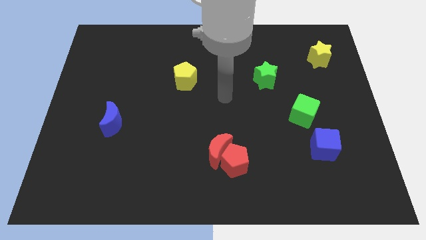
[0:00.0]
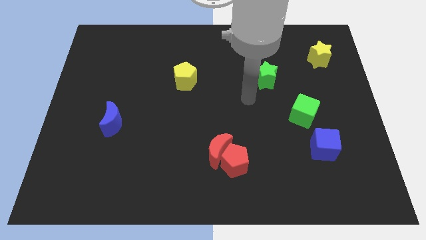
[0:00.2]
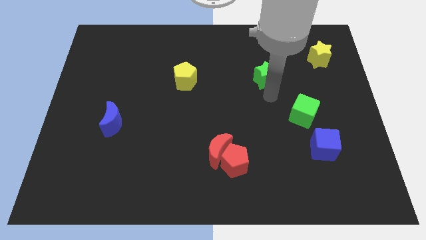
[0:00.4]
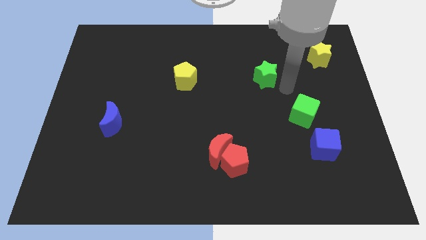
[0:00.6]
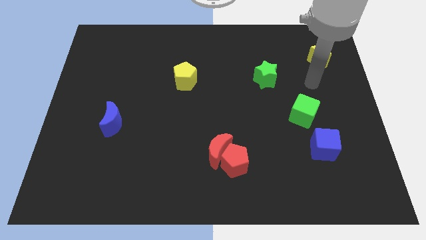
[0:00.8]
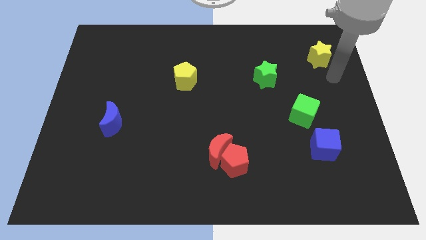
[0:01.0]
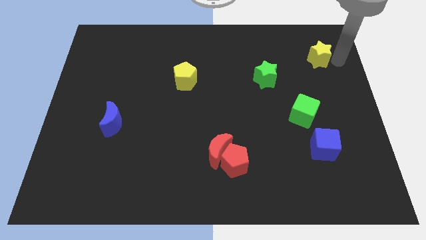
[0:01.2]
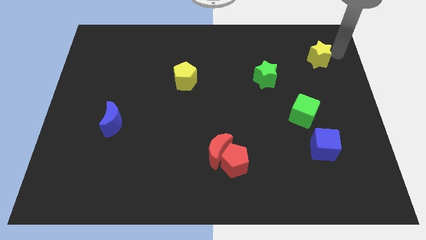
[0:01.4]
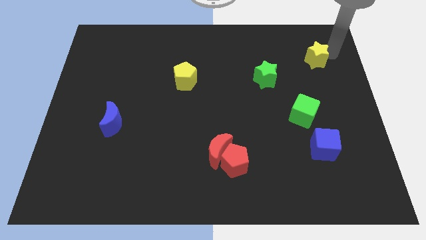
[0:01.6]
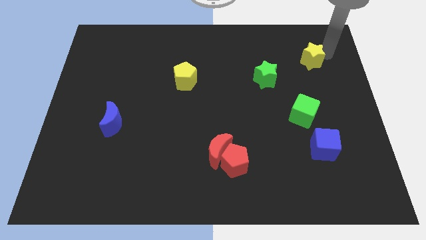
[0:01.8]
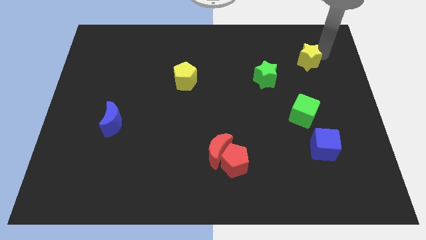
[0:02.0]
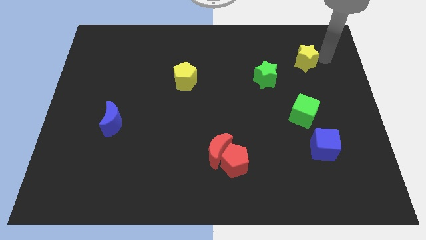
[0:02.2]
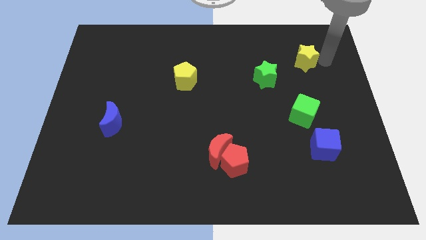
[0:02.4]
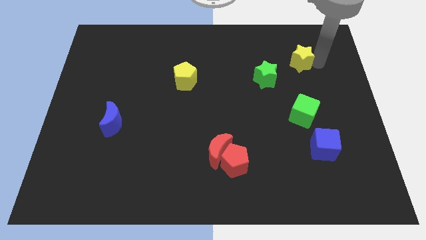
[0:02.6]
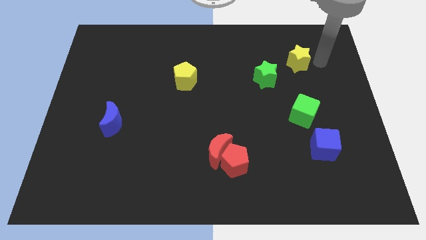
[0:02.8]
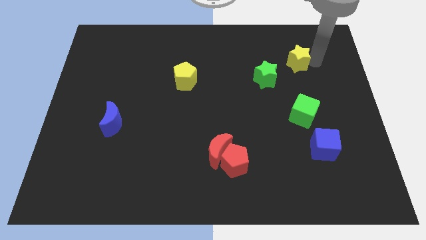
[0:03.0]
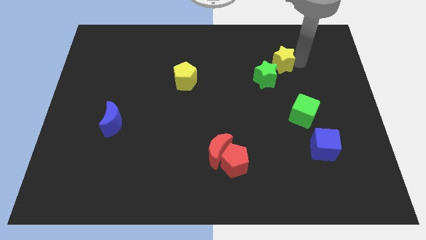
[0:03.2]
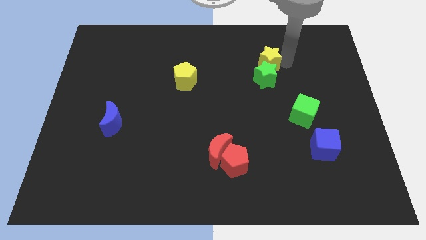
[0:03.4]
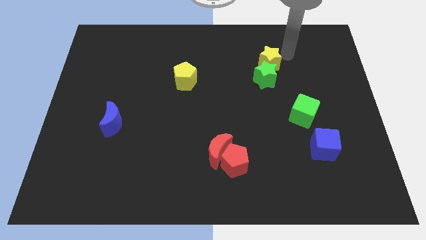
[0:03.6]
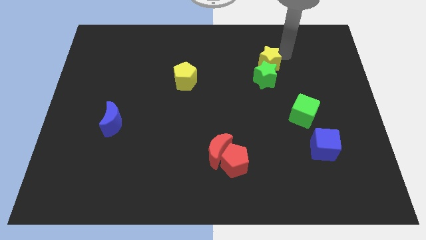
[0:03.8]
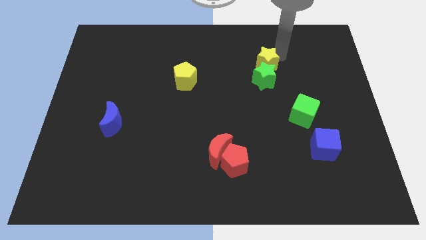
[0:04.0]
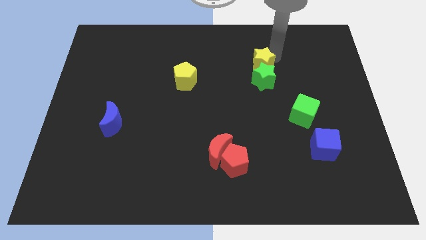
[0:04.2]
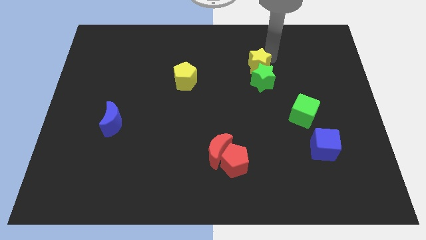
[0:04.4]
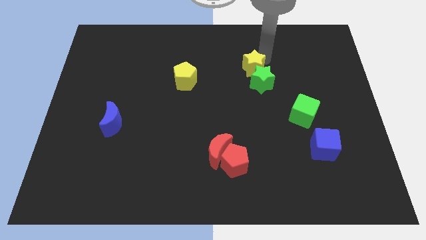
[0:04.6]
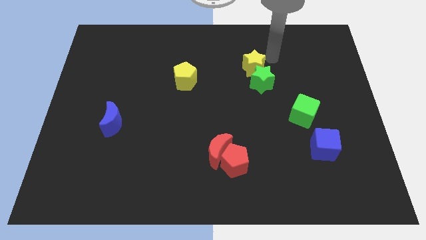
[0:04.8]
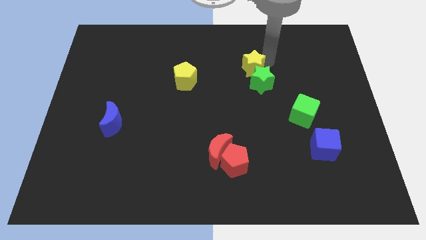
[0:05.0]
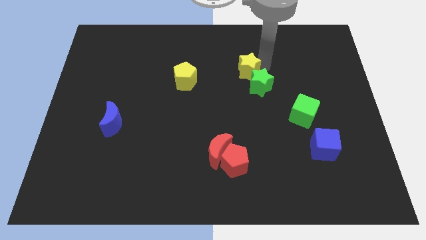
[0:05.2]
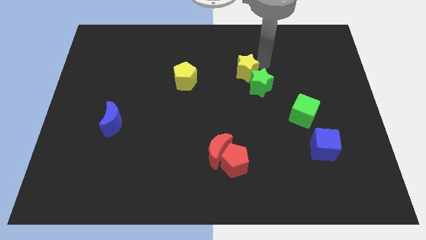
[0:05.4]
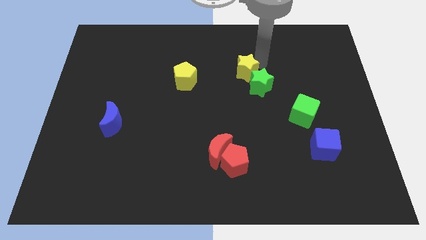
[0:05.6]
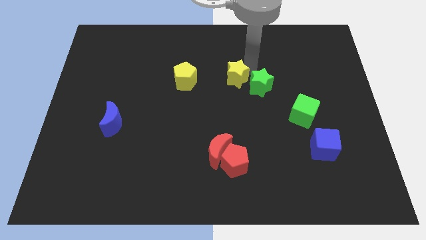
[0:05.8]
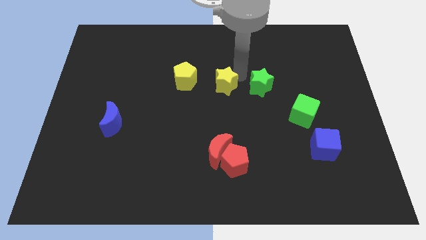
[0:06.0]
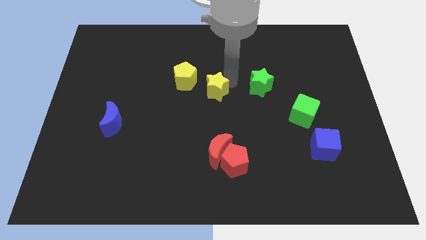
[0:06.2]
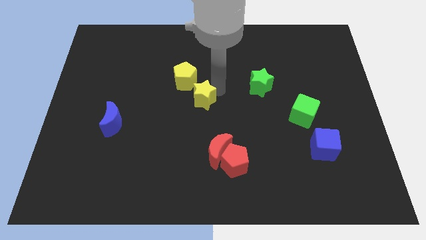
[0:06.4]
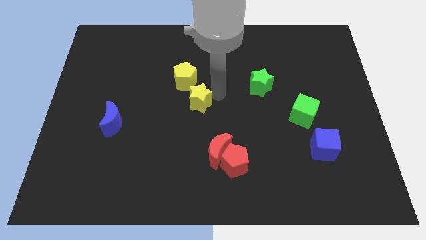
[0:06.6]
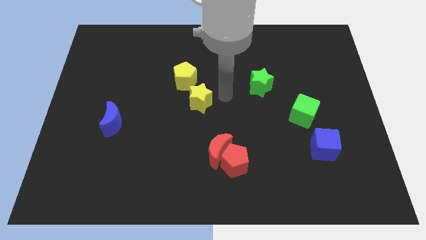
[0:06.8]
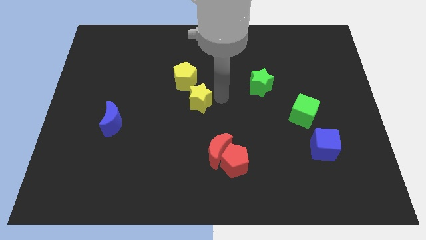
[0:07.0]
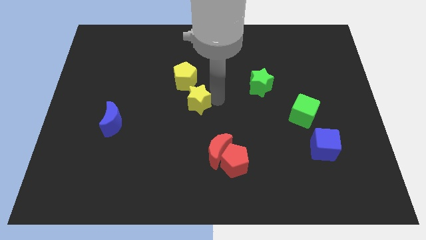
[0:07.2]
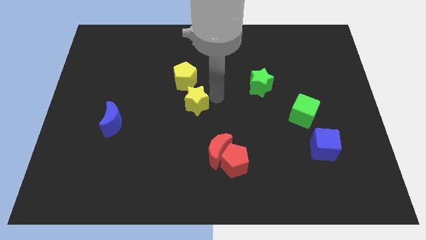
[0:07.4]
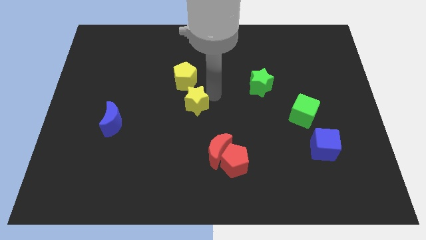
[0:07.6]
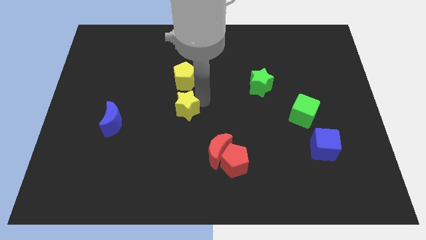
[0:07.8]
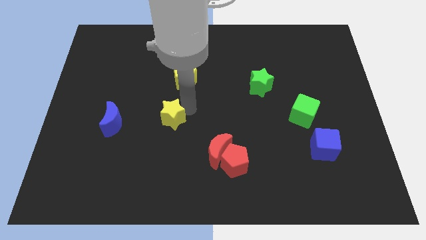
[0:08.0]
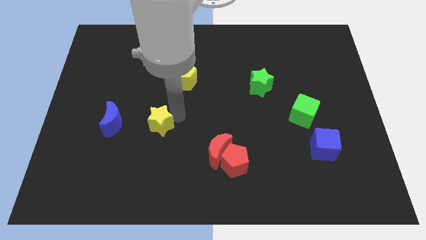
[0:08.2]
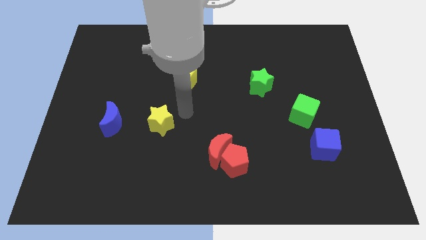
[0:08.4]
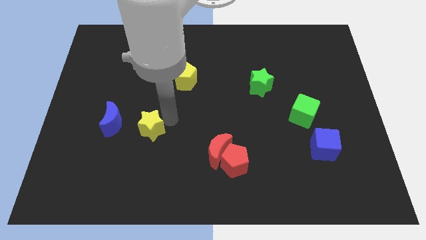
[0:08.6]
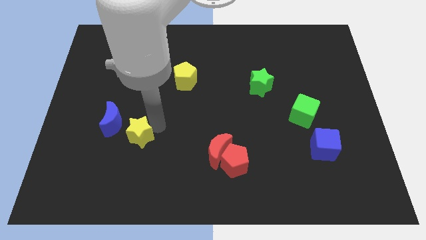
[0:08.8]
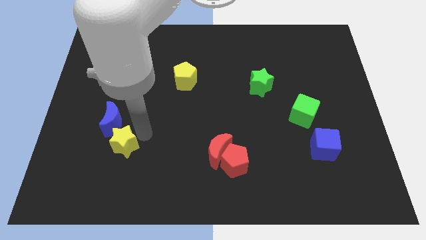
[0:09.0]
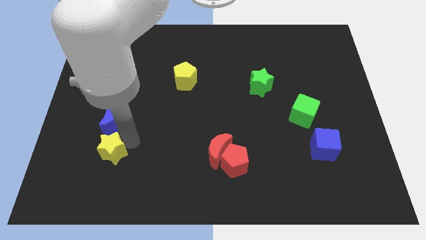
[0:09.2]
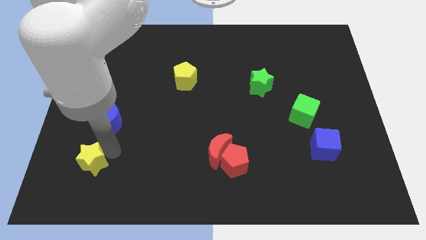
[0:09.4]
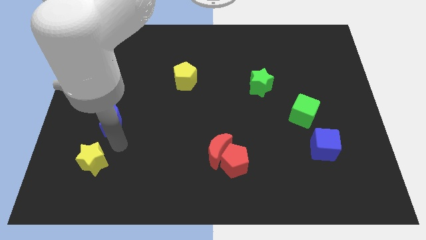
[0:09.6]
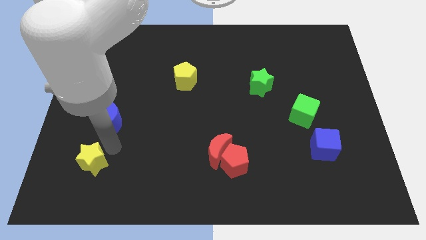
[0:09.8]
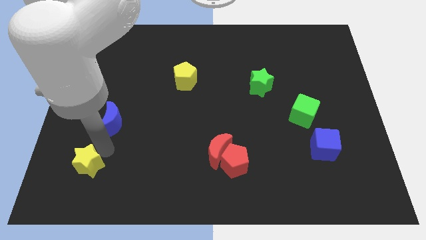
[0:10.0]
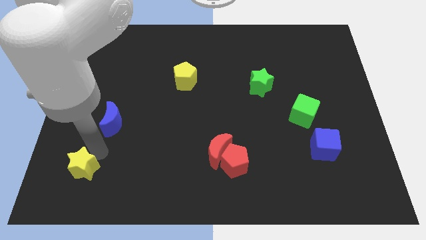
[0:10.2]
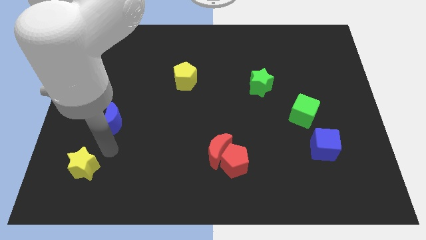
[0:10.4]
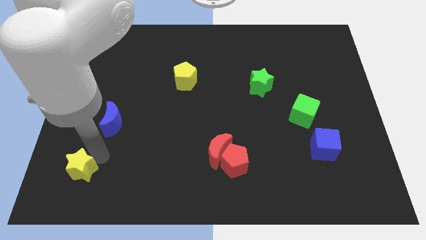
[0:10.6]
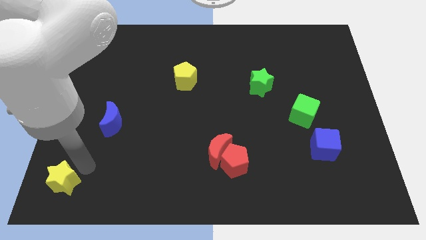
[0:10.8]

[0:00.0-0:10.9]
slide the yellow star to the lower left corner

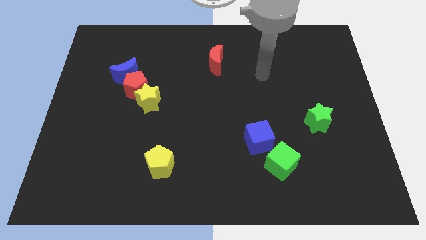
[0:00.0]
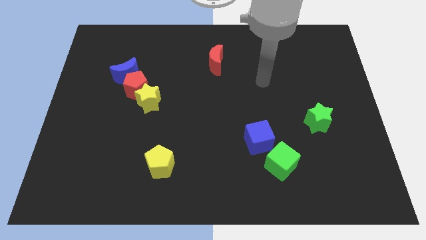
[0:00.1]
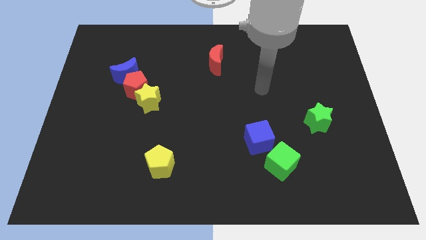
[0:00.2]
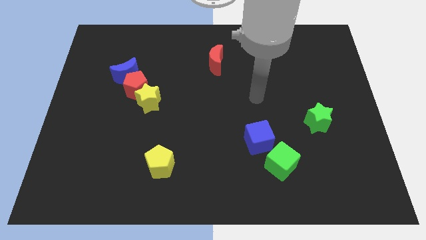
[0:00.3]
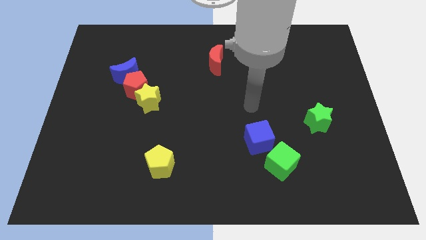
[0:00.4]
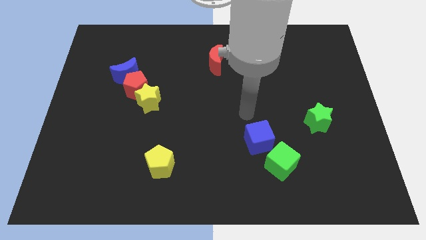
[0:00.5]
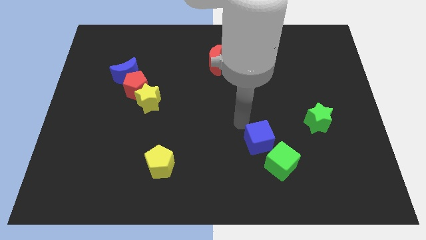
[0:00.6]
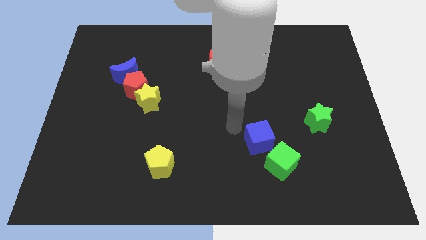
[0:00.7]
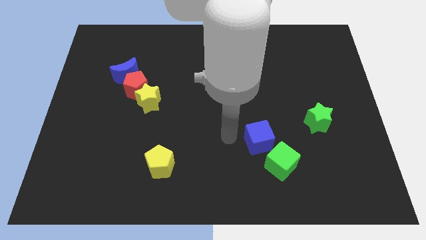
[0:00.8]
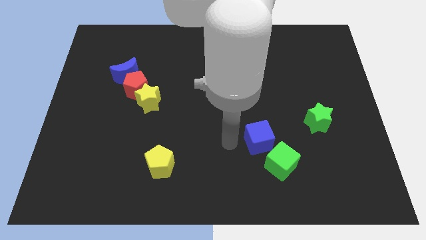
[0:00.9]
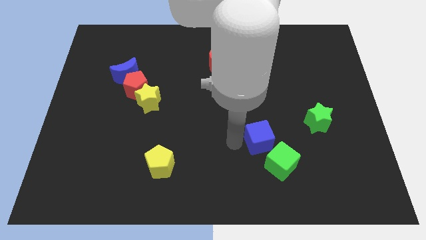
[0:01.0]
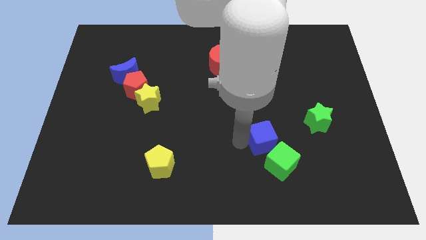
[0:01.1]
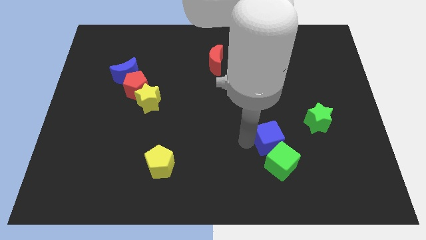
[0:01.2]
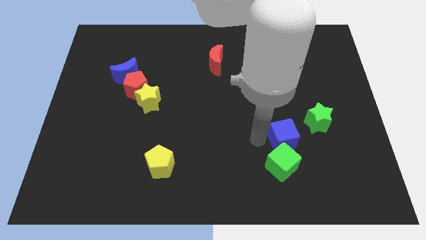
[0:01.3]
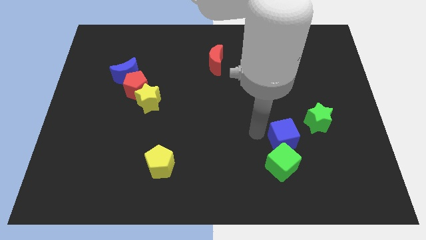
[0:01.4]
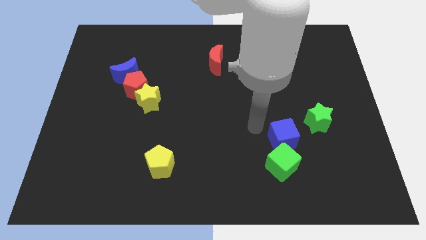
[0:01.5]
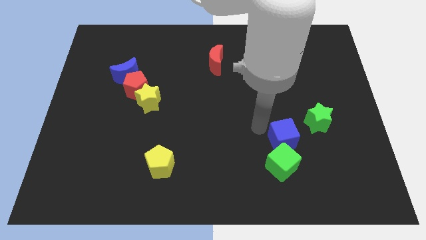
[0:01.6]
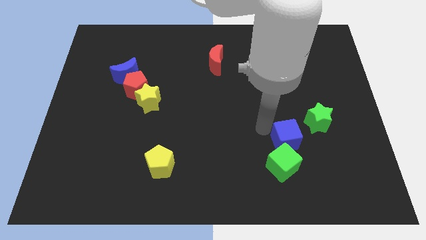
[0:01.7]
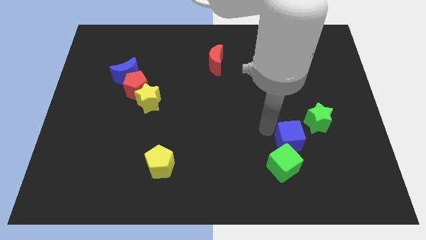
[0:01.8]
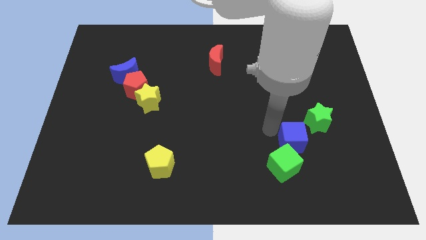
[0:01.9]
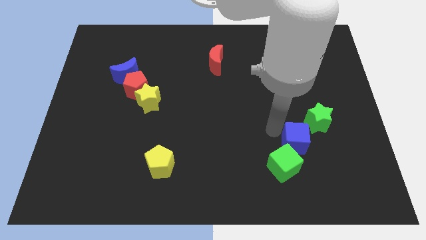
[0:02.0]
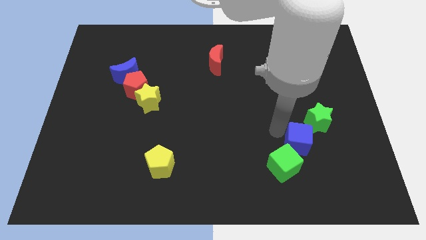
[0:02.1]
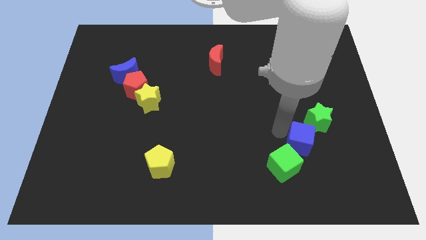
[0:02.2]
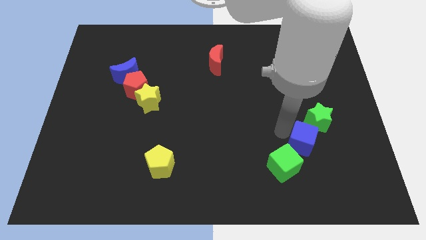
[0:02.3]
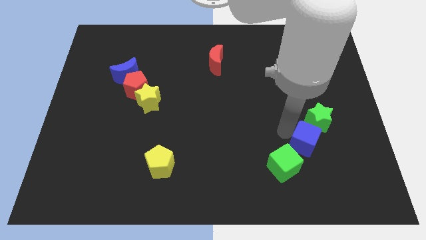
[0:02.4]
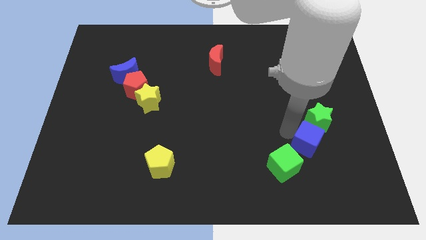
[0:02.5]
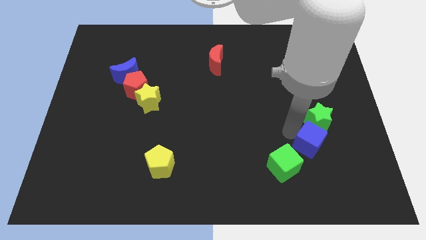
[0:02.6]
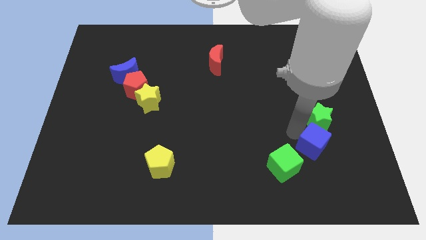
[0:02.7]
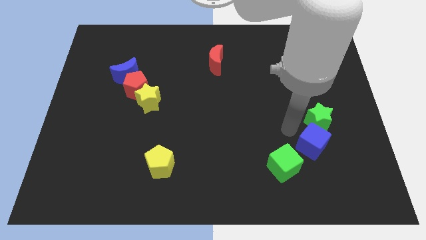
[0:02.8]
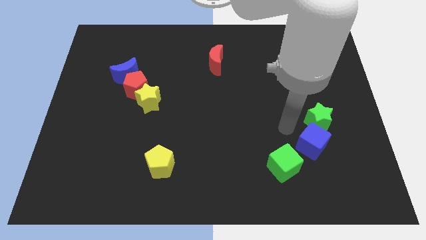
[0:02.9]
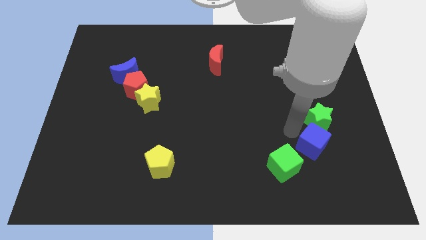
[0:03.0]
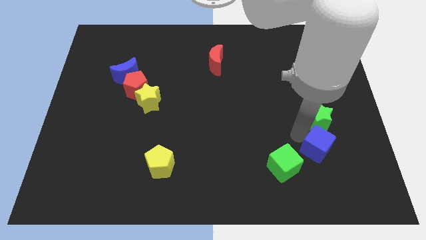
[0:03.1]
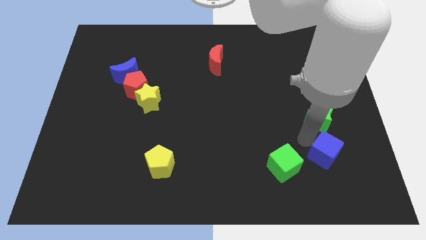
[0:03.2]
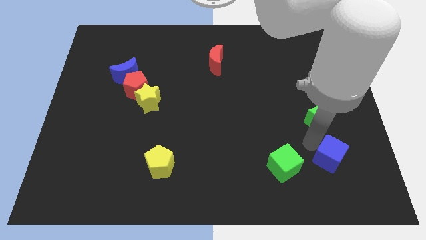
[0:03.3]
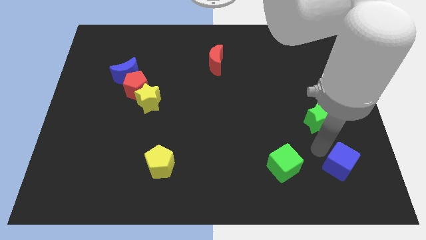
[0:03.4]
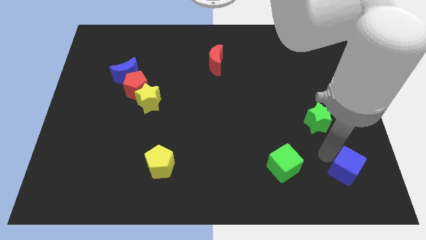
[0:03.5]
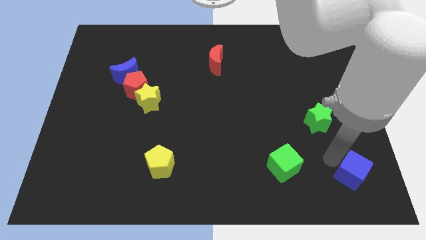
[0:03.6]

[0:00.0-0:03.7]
move the blue cube to the bottom right corner
